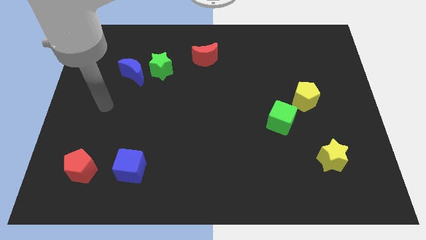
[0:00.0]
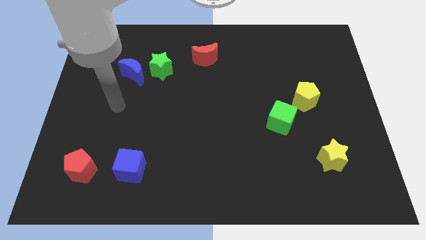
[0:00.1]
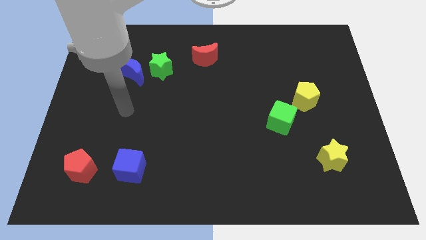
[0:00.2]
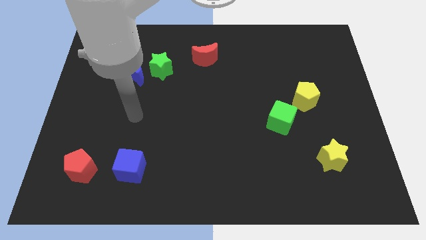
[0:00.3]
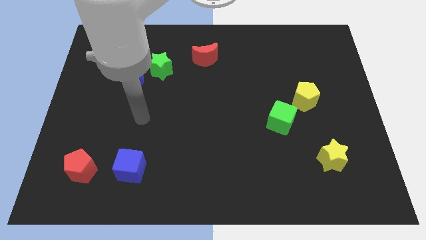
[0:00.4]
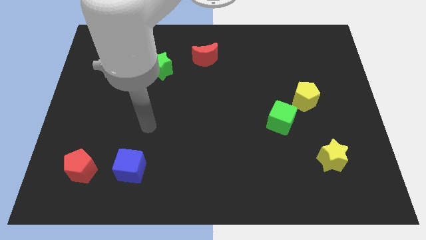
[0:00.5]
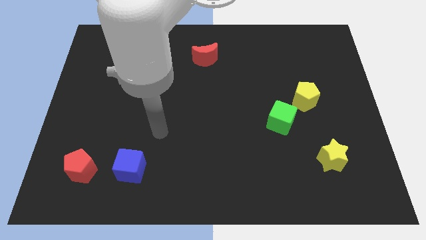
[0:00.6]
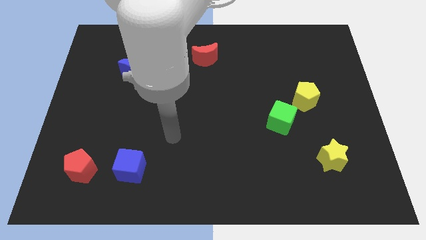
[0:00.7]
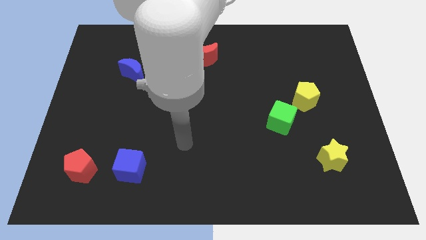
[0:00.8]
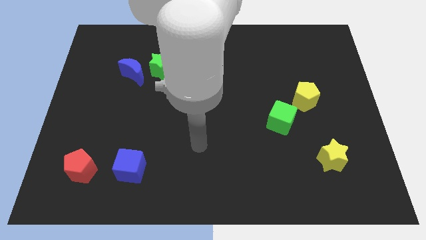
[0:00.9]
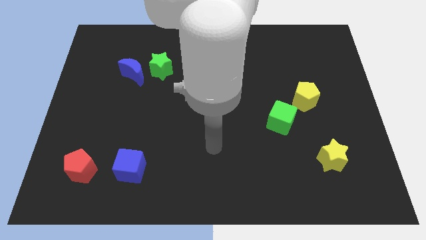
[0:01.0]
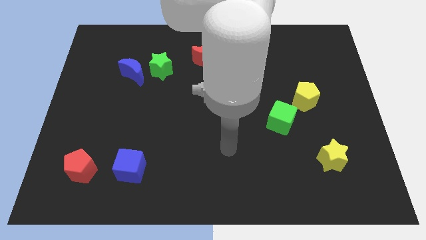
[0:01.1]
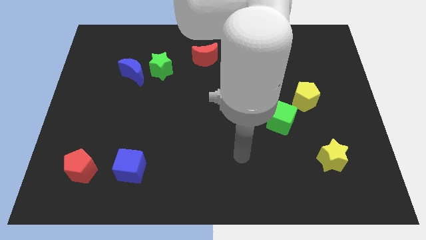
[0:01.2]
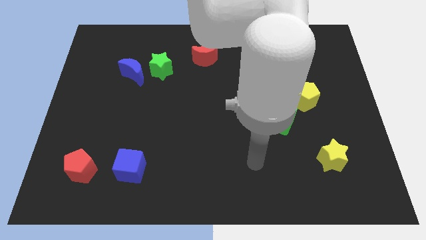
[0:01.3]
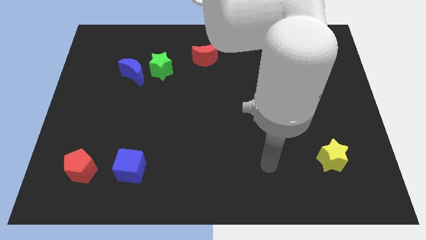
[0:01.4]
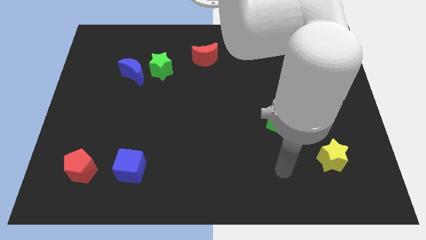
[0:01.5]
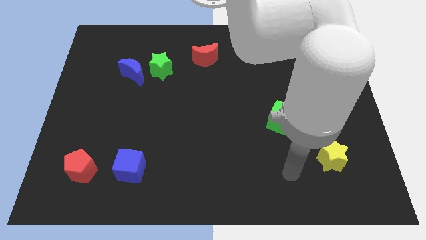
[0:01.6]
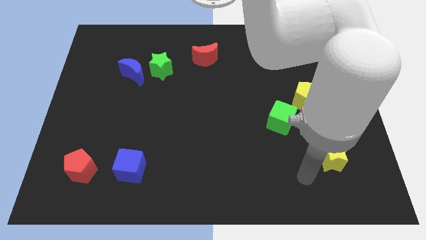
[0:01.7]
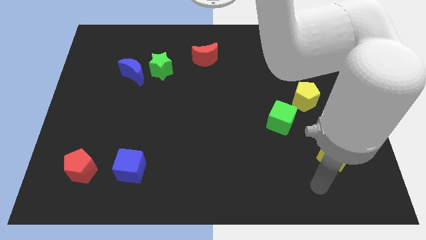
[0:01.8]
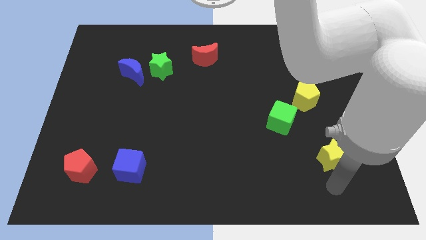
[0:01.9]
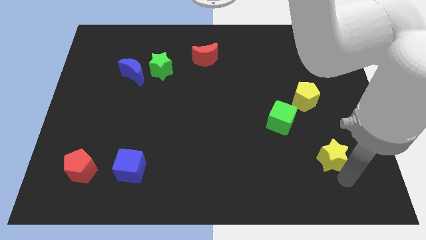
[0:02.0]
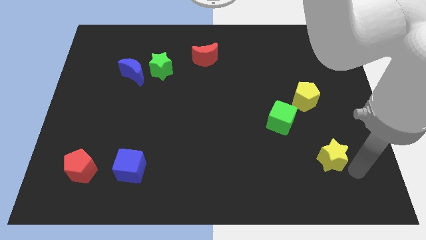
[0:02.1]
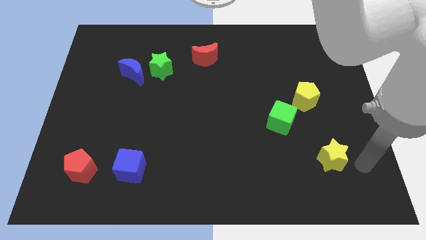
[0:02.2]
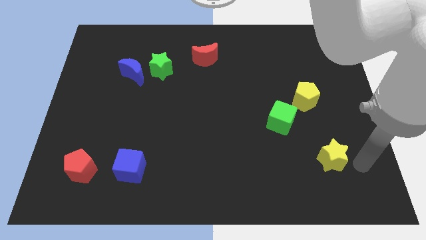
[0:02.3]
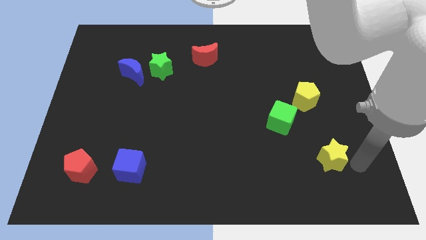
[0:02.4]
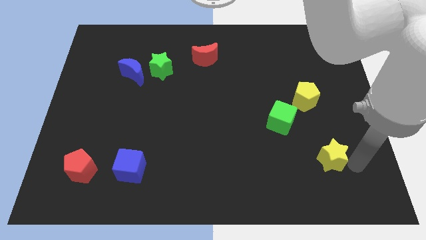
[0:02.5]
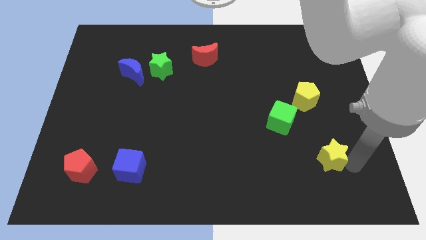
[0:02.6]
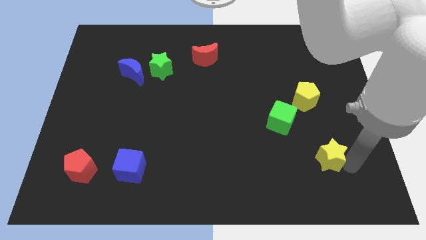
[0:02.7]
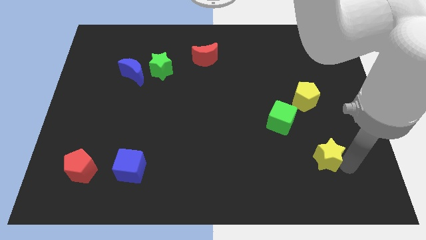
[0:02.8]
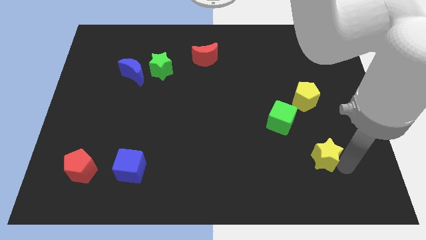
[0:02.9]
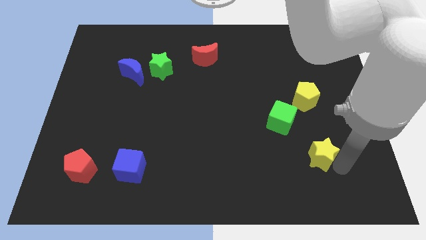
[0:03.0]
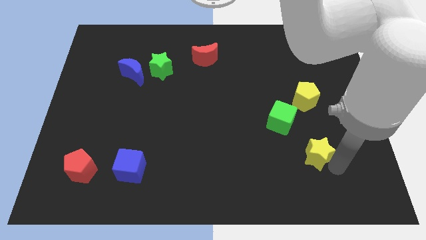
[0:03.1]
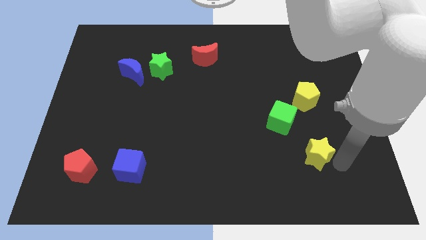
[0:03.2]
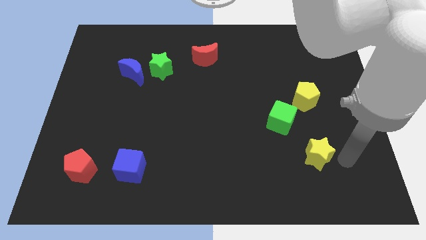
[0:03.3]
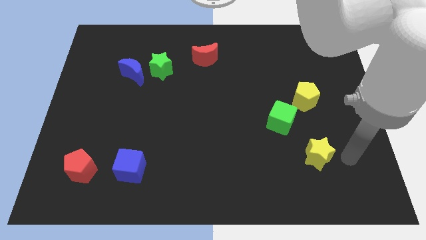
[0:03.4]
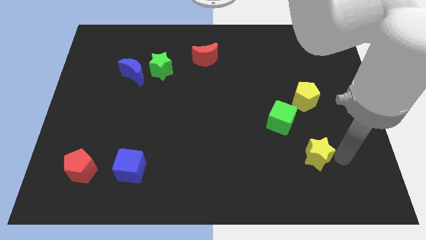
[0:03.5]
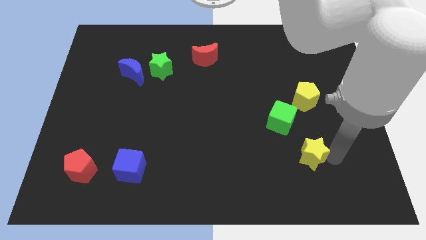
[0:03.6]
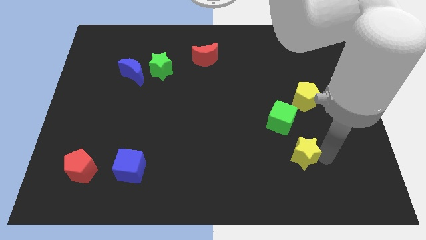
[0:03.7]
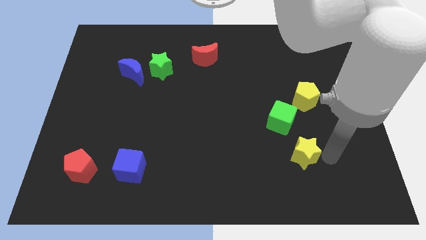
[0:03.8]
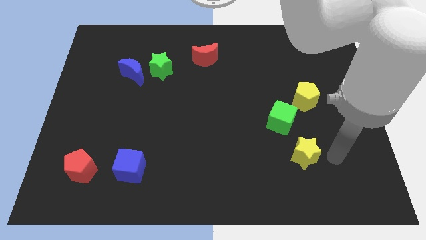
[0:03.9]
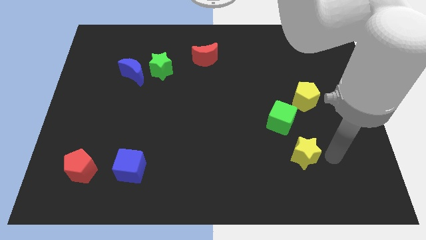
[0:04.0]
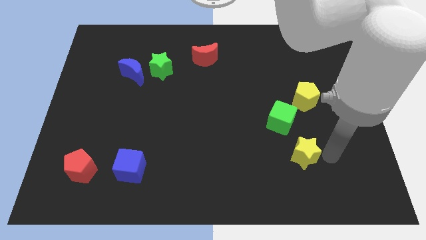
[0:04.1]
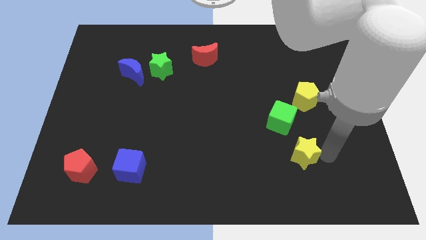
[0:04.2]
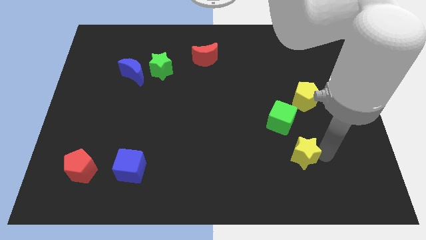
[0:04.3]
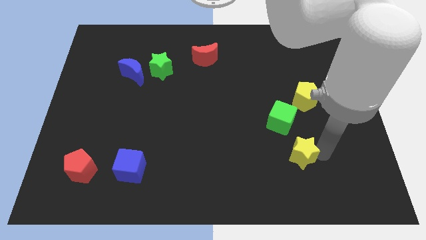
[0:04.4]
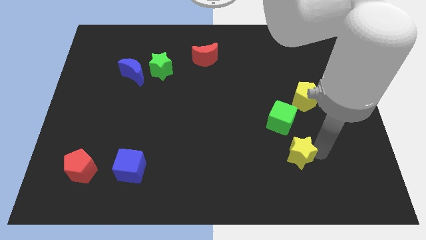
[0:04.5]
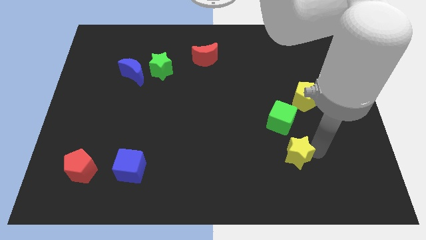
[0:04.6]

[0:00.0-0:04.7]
slide the yellow star to the left a little

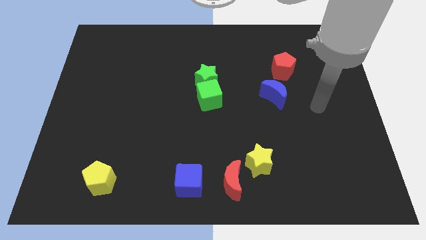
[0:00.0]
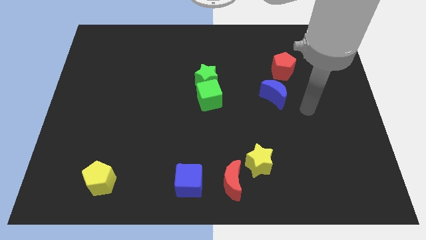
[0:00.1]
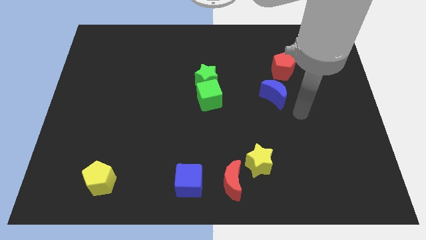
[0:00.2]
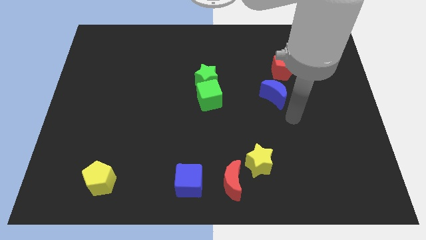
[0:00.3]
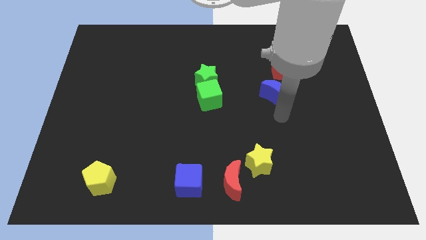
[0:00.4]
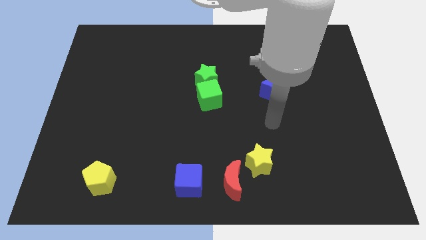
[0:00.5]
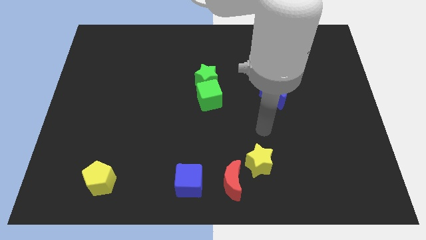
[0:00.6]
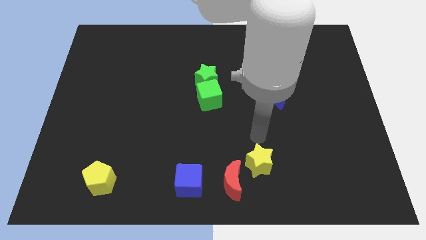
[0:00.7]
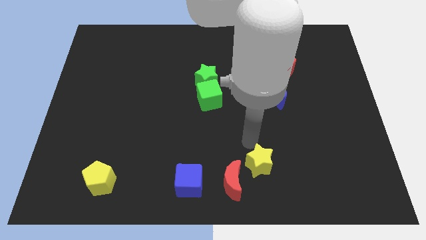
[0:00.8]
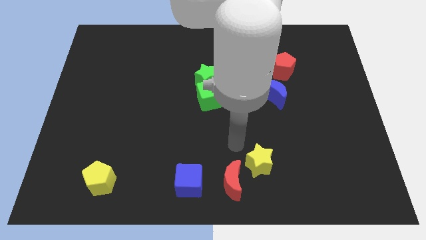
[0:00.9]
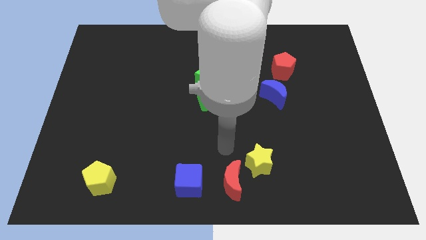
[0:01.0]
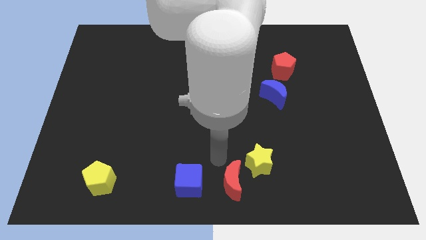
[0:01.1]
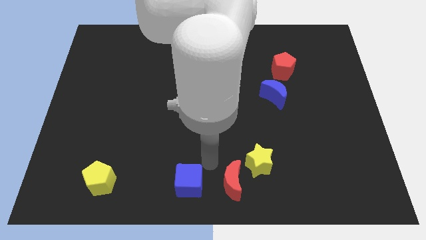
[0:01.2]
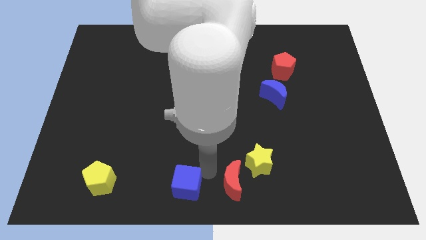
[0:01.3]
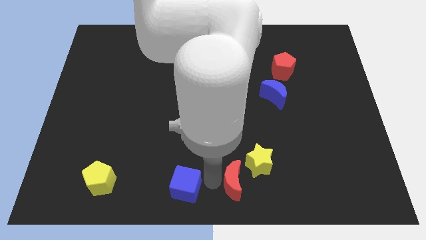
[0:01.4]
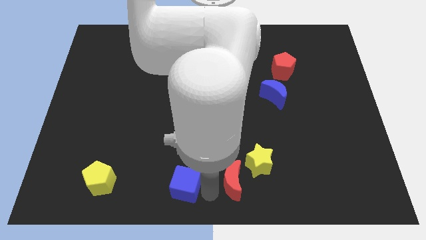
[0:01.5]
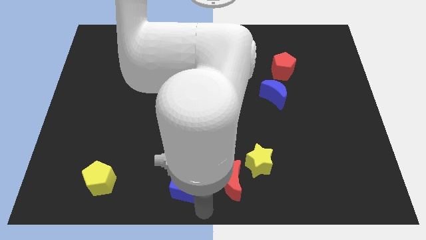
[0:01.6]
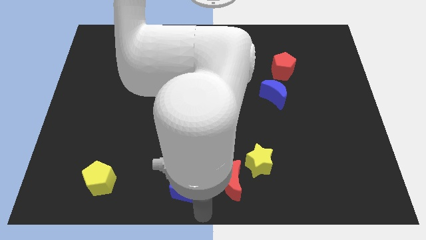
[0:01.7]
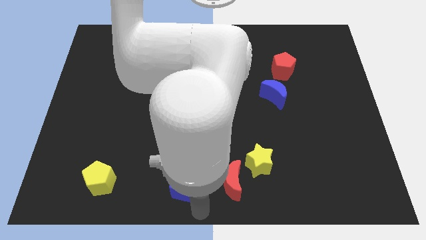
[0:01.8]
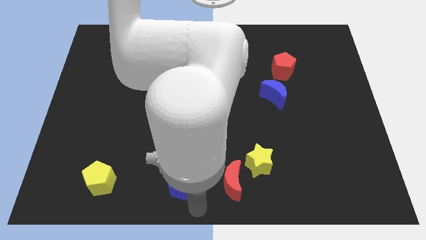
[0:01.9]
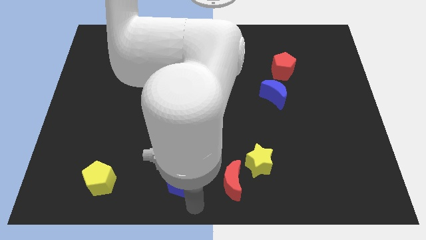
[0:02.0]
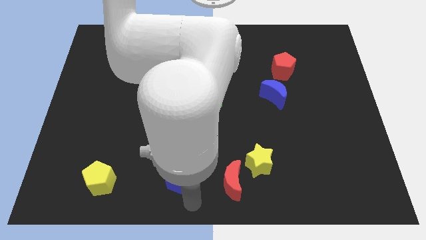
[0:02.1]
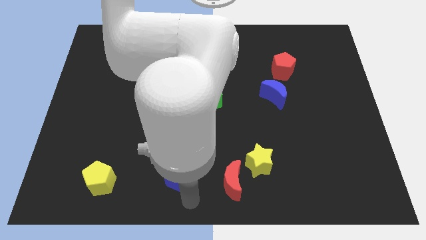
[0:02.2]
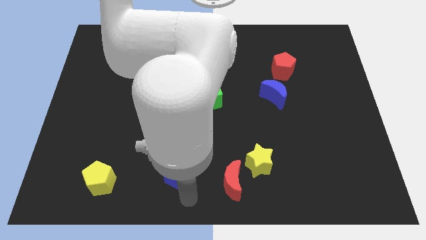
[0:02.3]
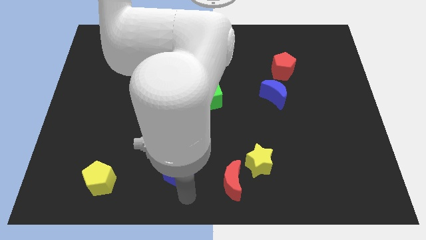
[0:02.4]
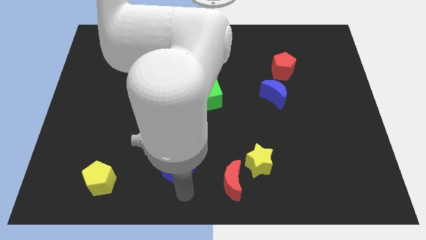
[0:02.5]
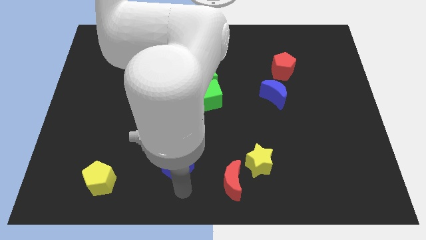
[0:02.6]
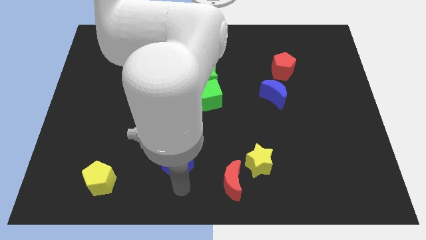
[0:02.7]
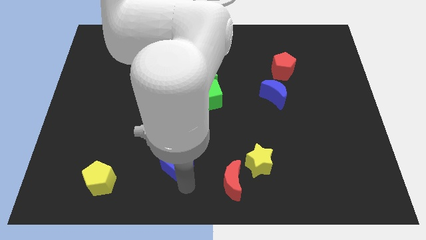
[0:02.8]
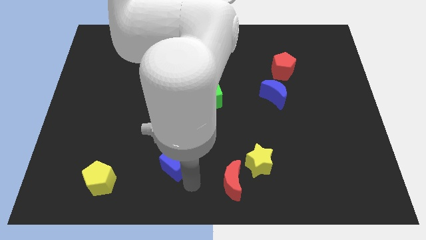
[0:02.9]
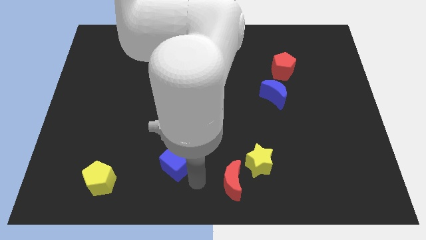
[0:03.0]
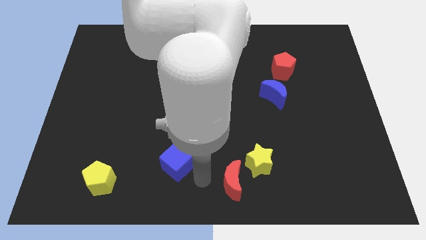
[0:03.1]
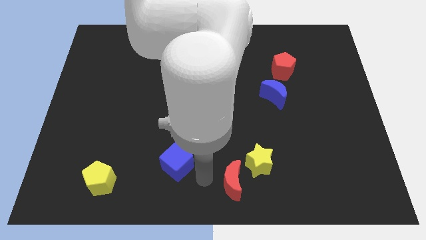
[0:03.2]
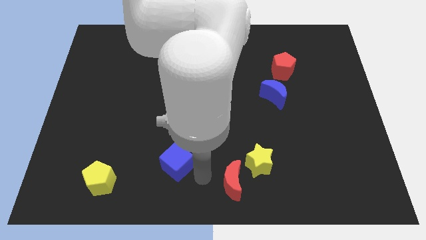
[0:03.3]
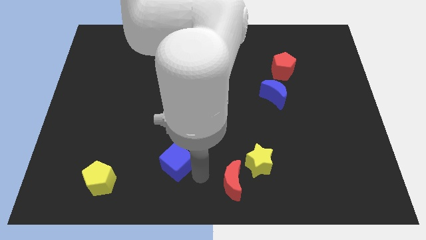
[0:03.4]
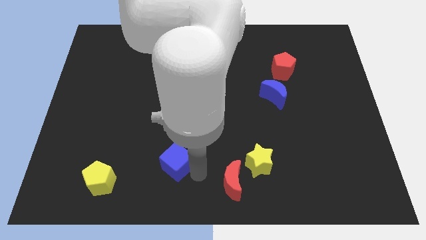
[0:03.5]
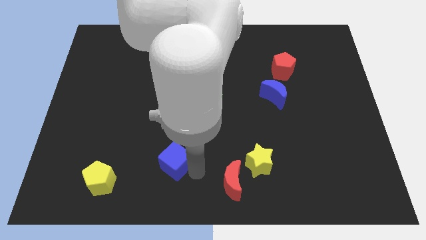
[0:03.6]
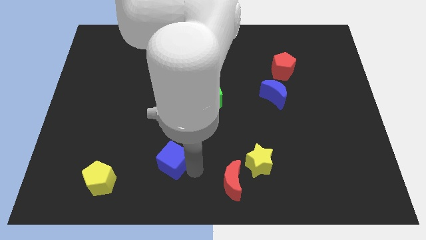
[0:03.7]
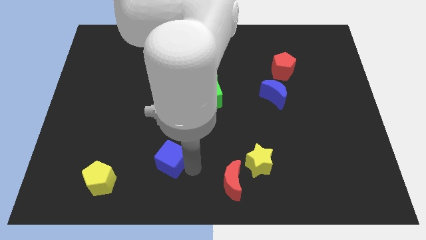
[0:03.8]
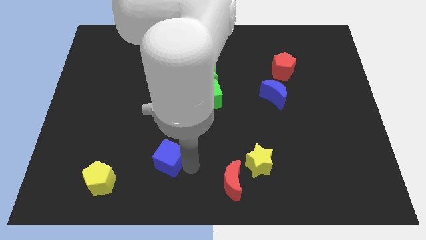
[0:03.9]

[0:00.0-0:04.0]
slide the blue cube a bit up and left diagonally
